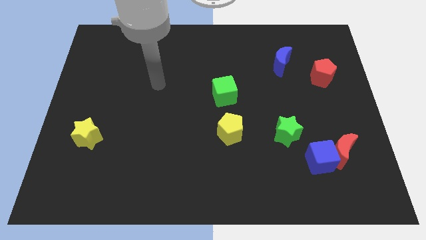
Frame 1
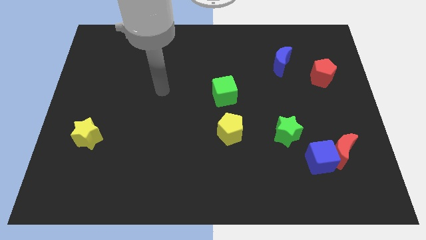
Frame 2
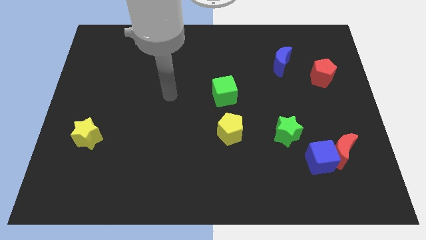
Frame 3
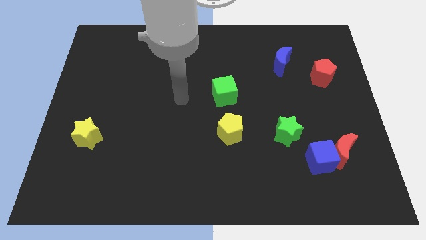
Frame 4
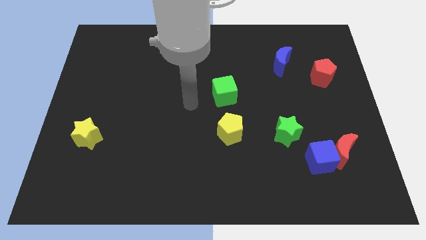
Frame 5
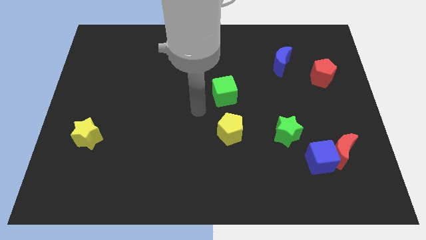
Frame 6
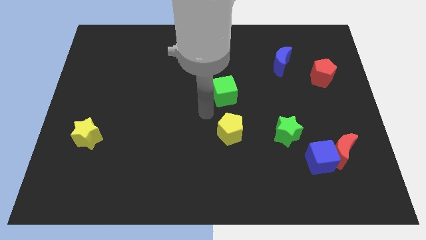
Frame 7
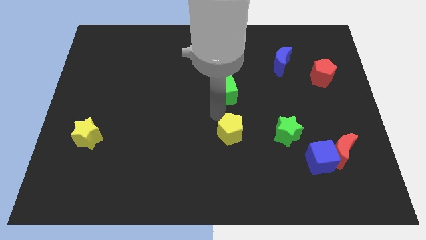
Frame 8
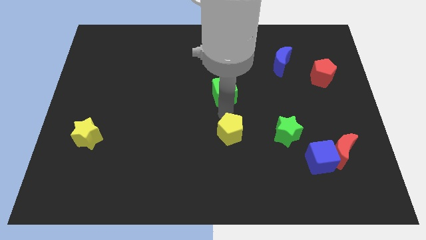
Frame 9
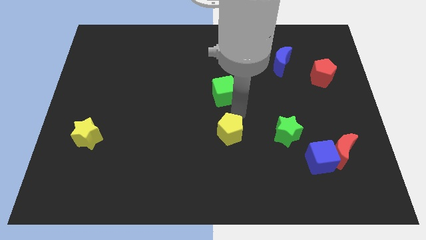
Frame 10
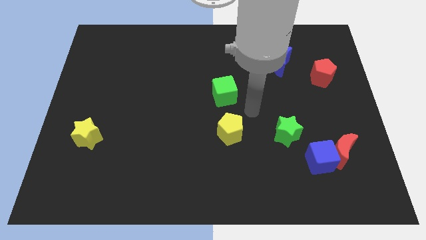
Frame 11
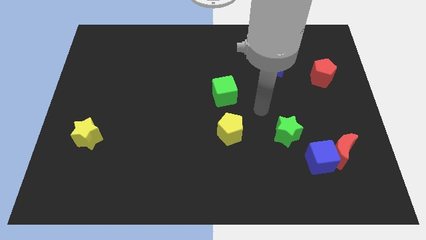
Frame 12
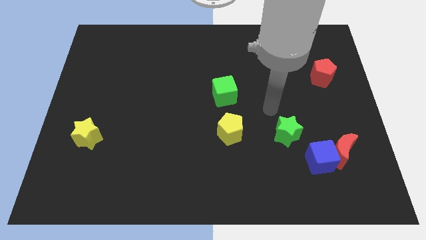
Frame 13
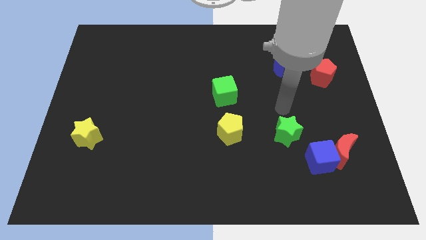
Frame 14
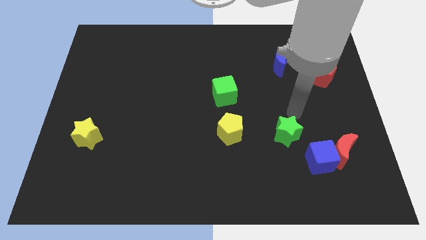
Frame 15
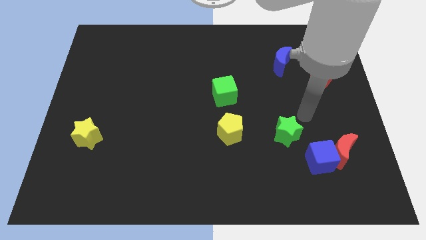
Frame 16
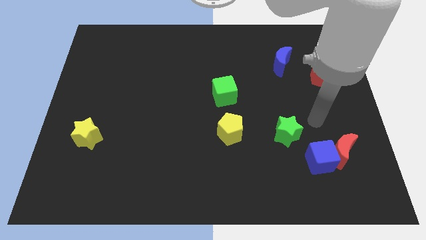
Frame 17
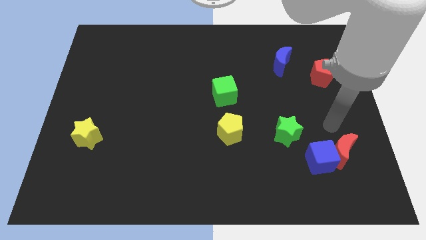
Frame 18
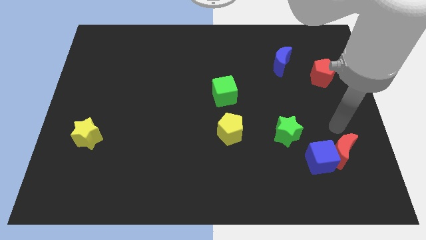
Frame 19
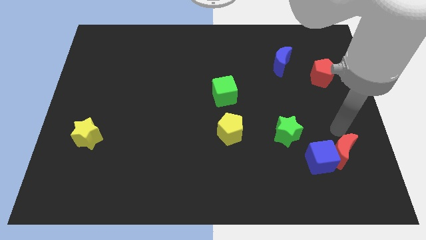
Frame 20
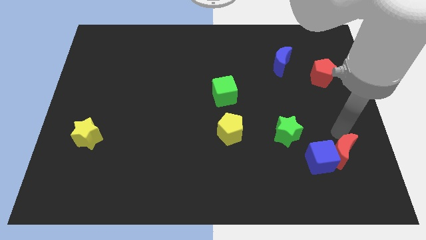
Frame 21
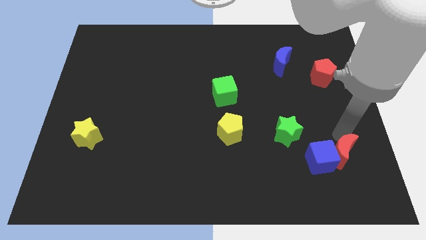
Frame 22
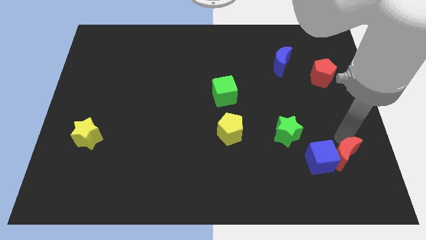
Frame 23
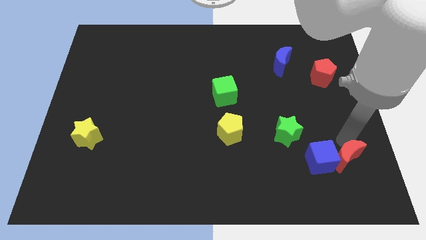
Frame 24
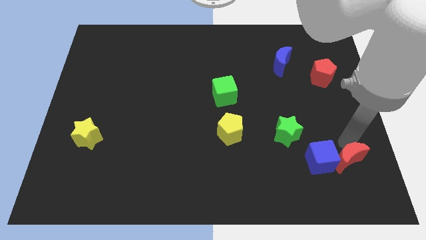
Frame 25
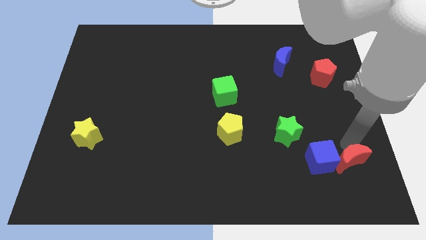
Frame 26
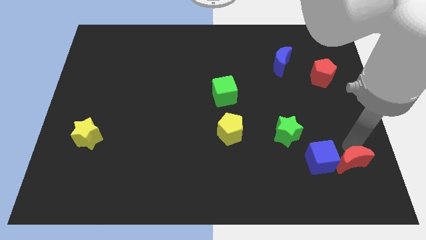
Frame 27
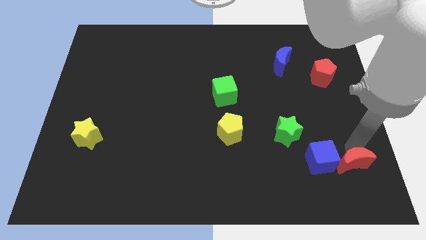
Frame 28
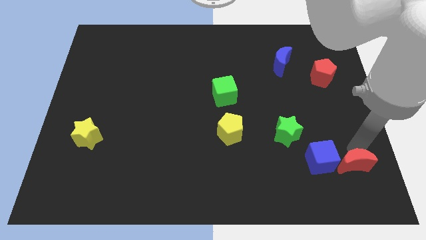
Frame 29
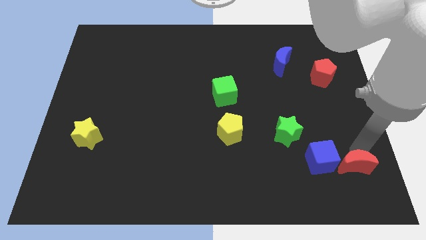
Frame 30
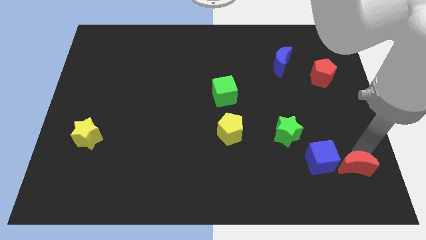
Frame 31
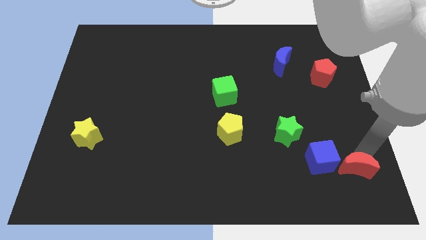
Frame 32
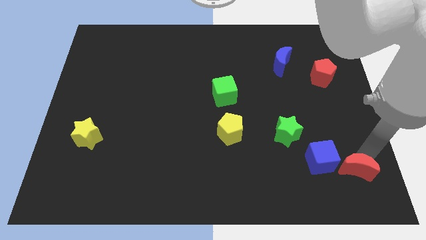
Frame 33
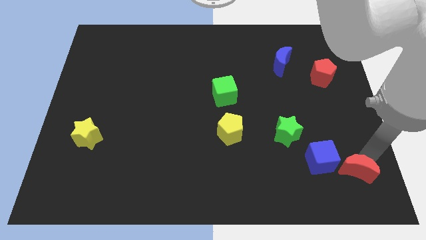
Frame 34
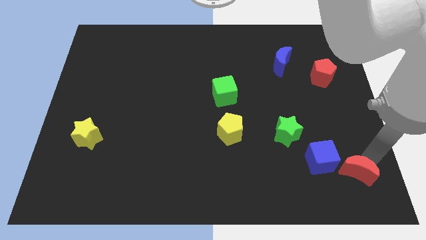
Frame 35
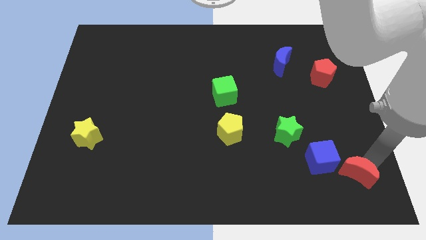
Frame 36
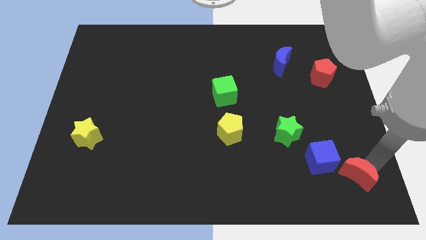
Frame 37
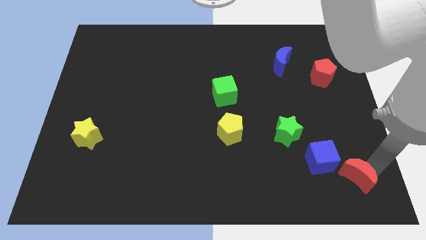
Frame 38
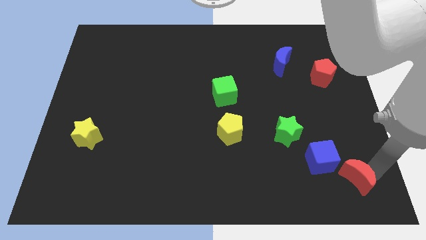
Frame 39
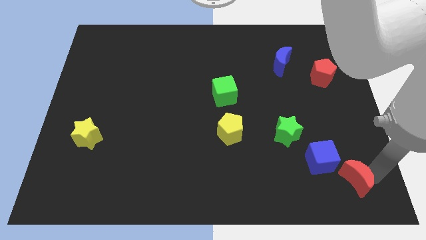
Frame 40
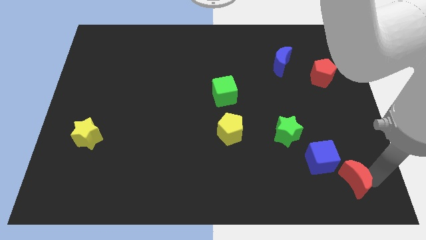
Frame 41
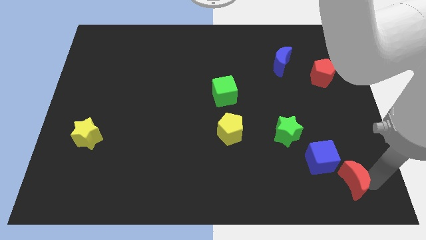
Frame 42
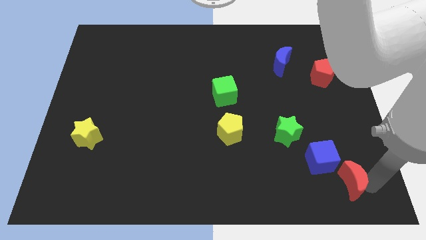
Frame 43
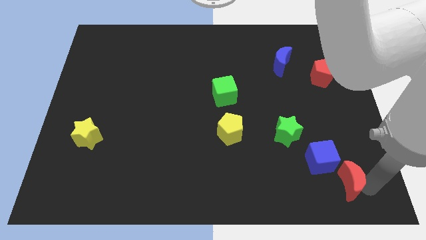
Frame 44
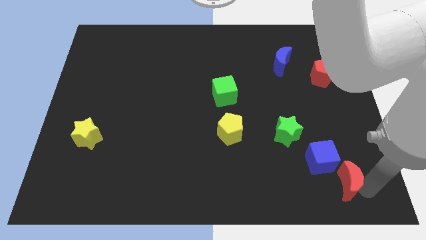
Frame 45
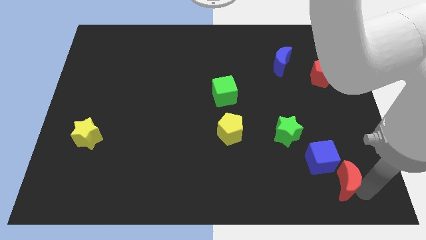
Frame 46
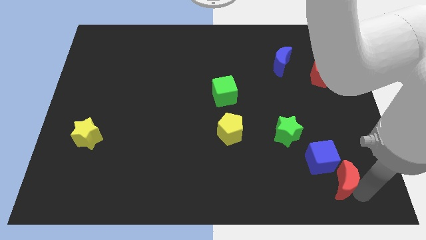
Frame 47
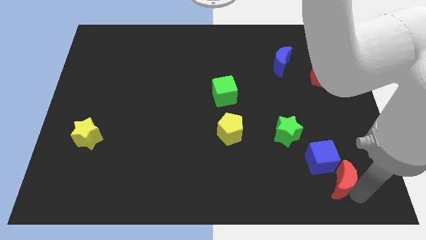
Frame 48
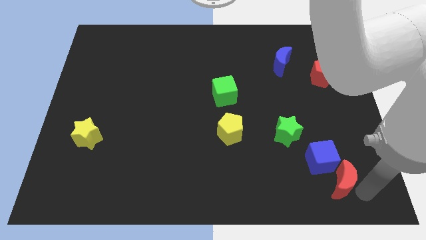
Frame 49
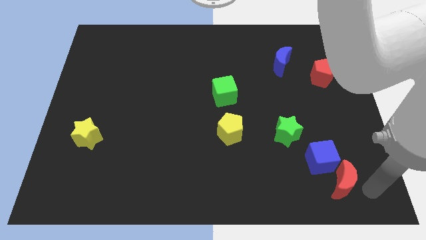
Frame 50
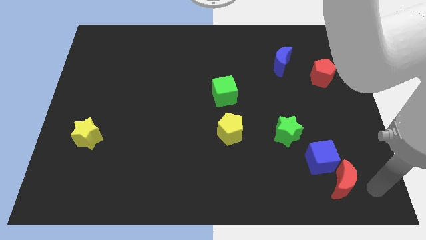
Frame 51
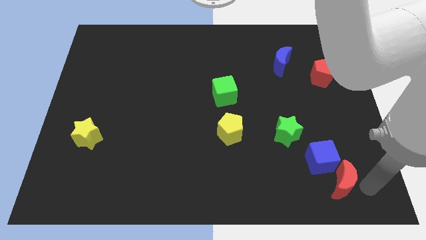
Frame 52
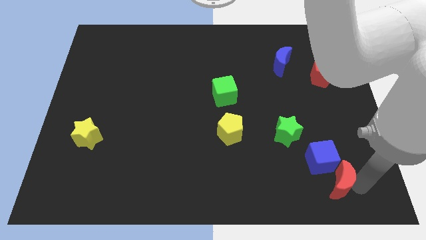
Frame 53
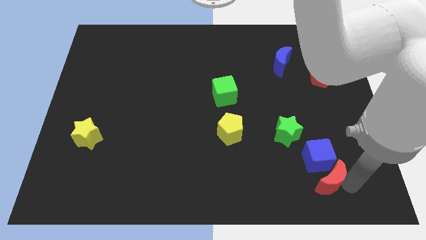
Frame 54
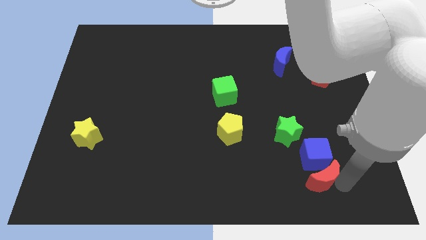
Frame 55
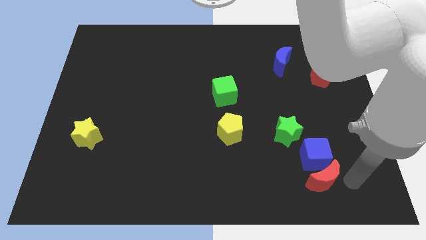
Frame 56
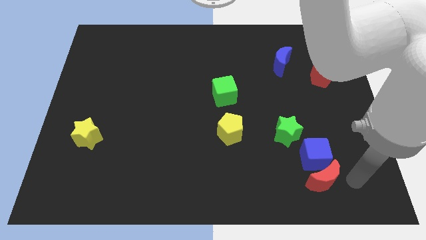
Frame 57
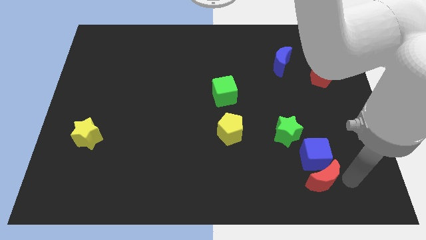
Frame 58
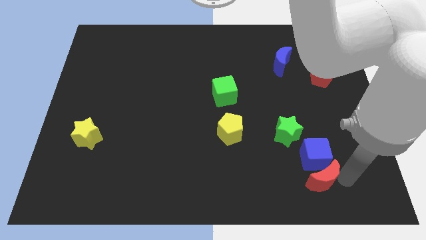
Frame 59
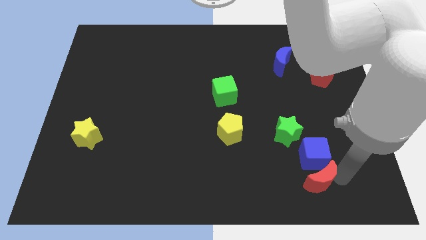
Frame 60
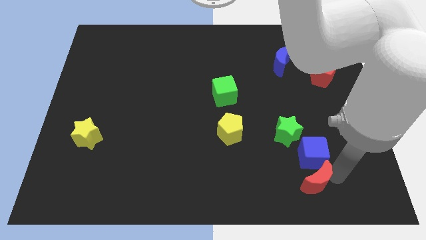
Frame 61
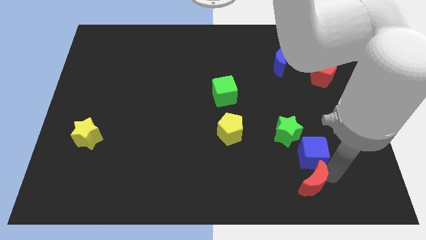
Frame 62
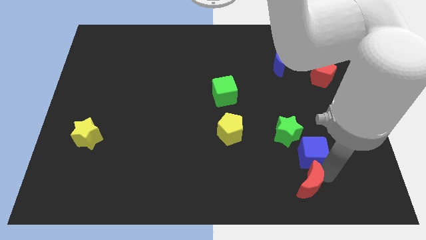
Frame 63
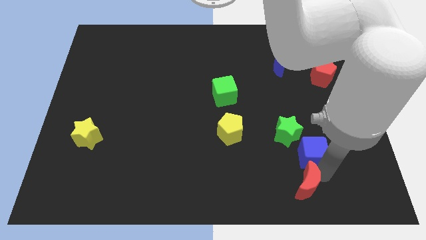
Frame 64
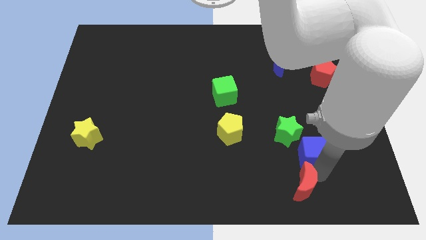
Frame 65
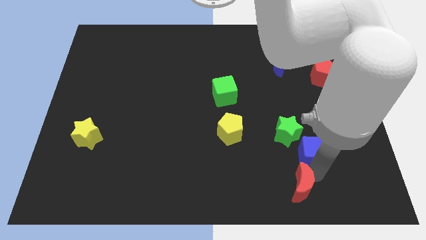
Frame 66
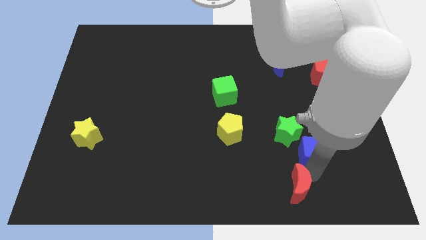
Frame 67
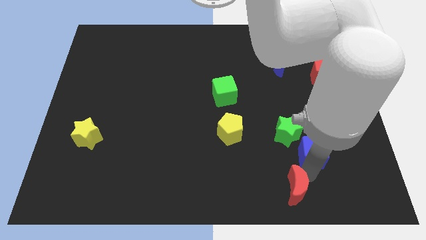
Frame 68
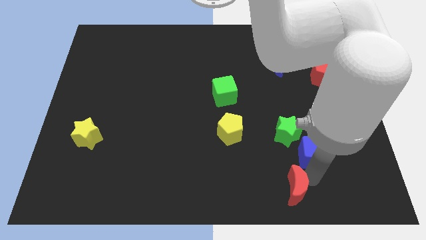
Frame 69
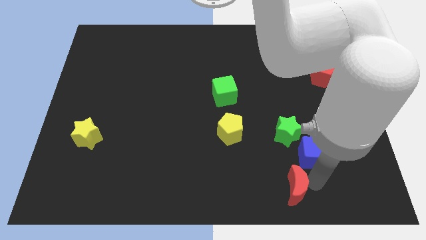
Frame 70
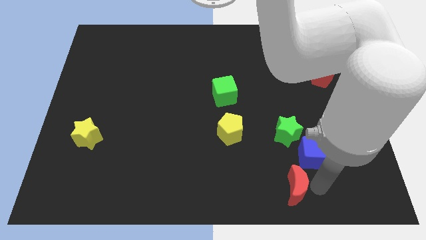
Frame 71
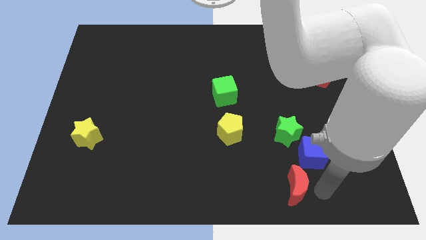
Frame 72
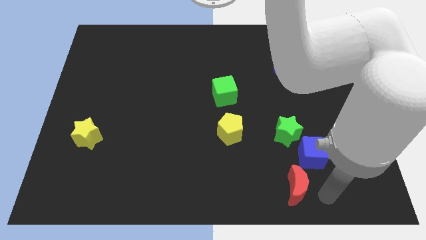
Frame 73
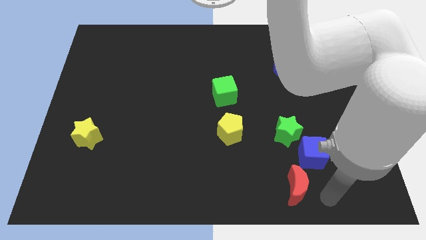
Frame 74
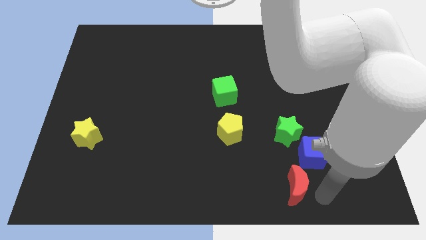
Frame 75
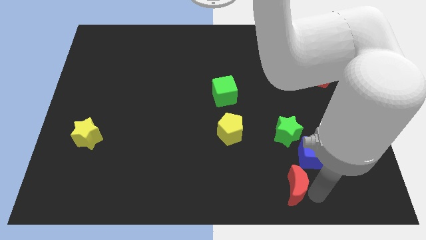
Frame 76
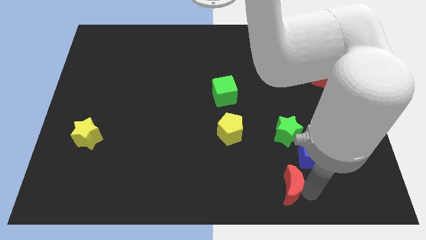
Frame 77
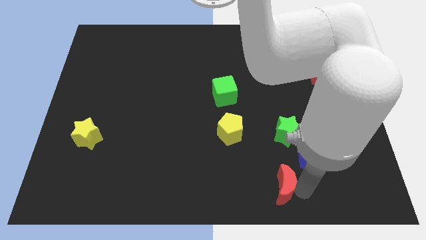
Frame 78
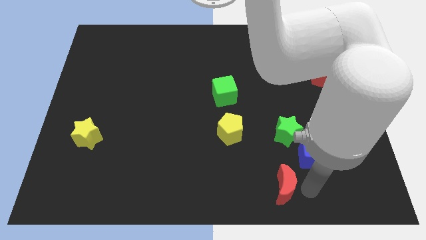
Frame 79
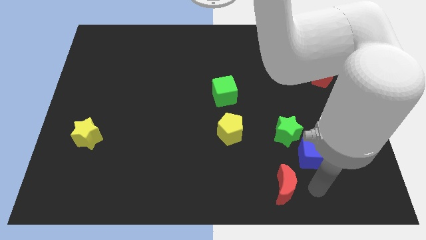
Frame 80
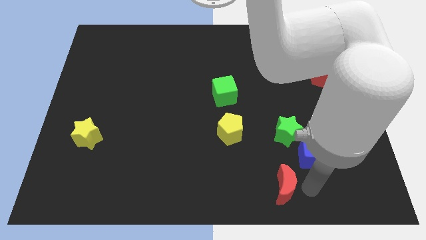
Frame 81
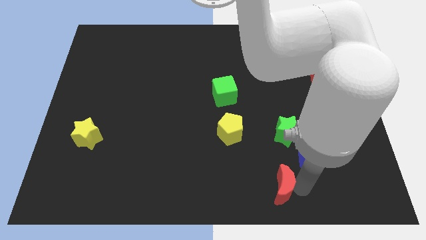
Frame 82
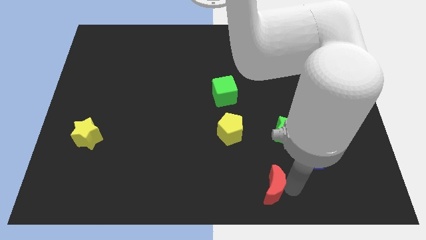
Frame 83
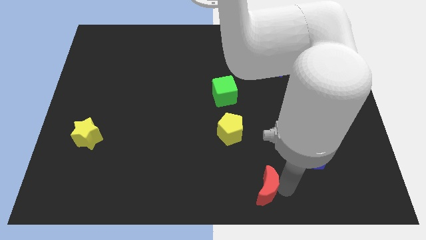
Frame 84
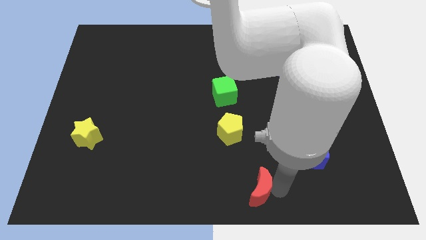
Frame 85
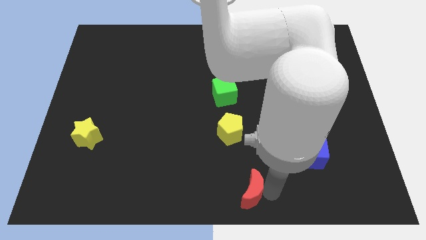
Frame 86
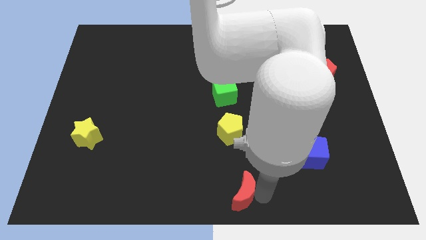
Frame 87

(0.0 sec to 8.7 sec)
push the red moon to the bottom side of the yellow pentagon
